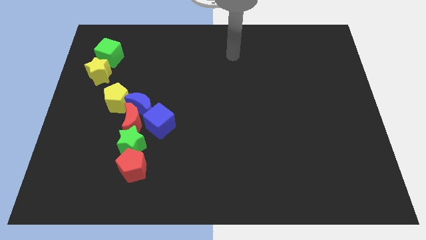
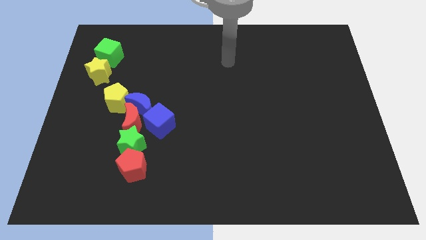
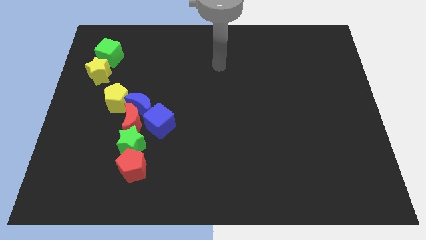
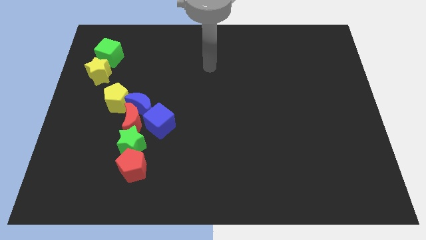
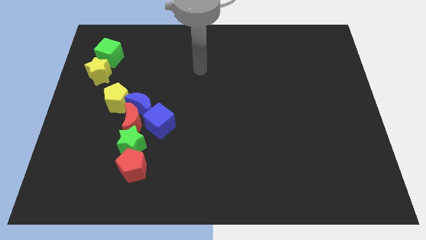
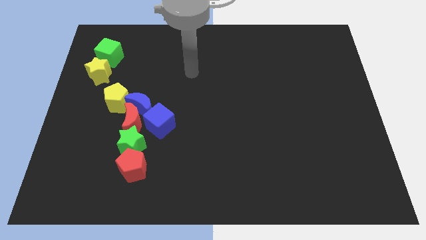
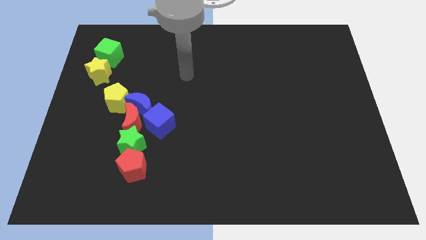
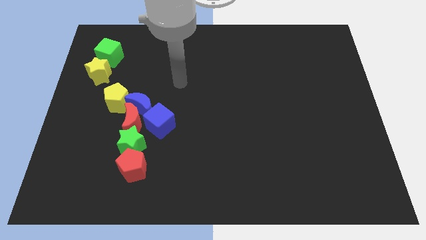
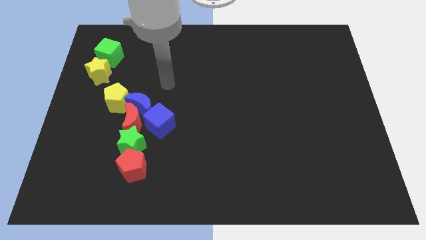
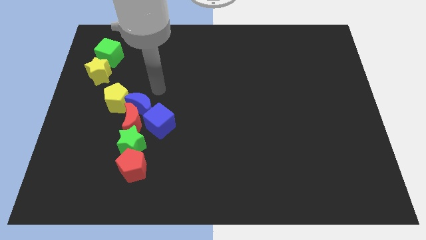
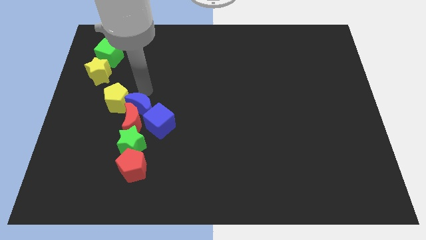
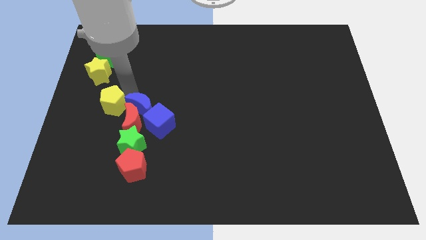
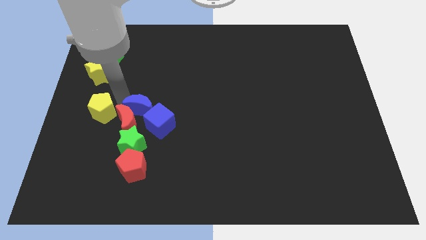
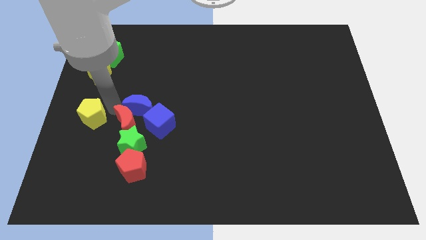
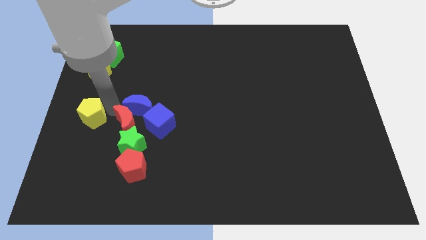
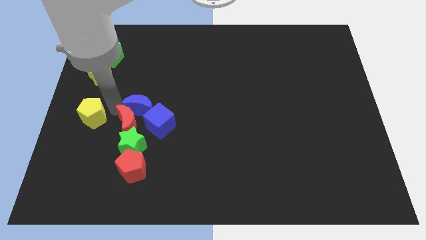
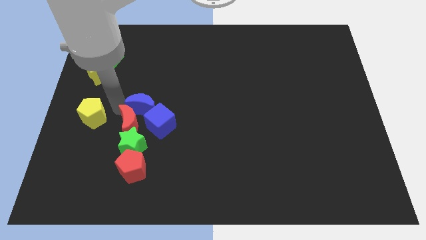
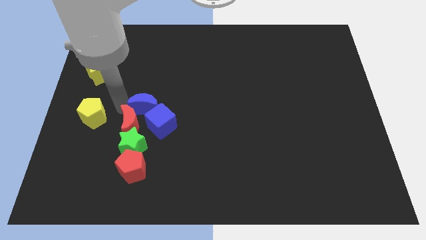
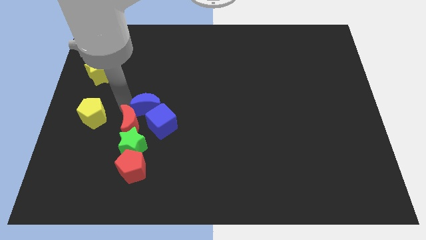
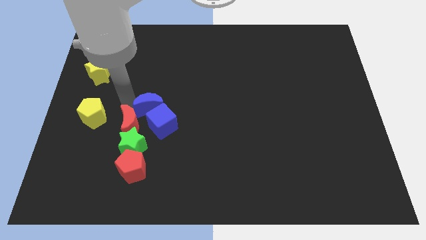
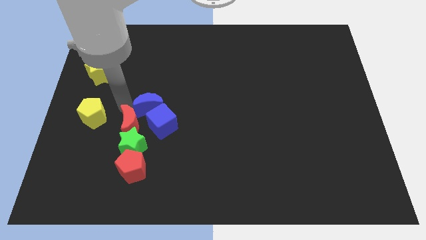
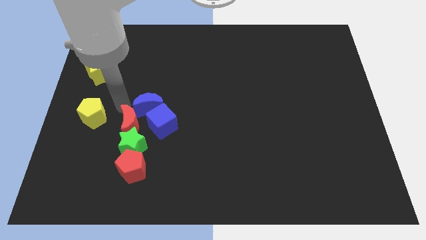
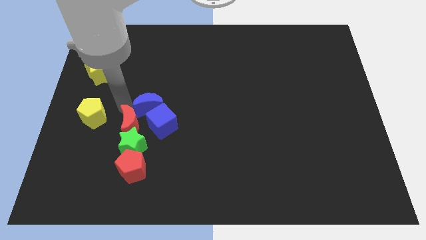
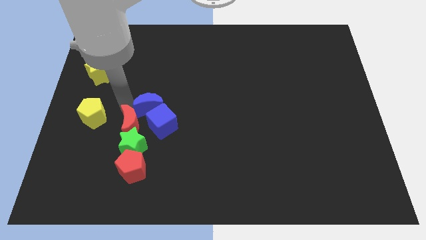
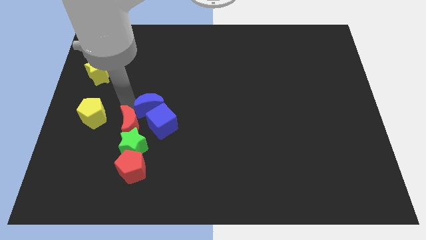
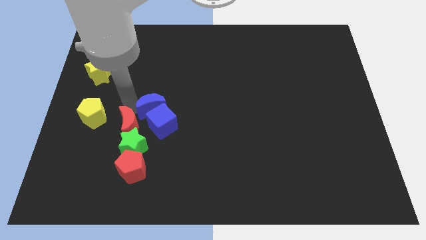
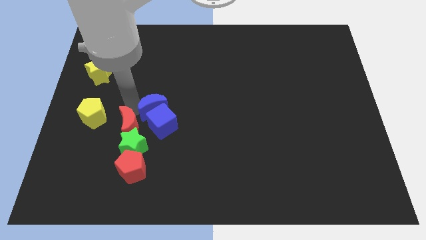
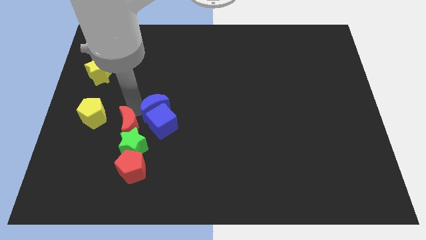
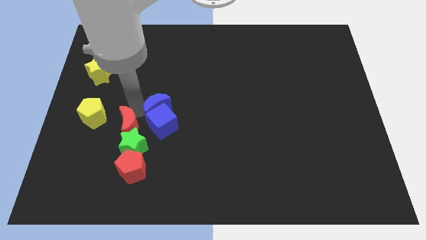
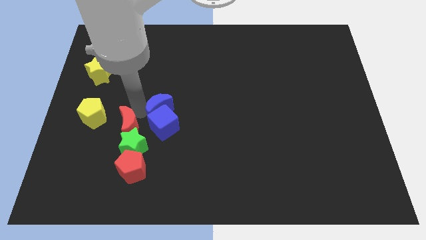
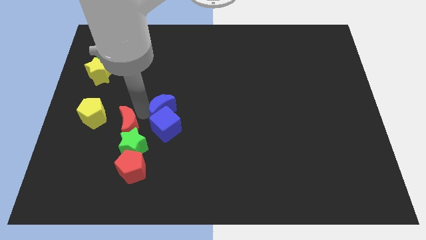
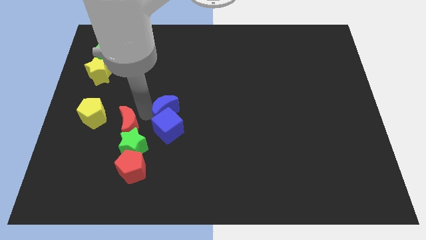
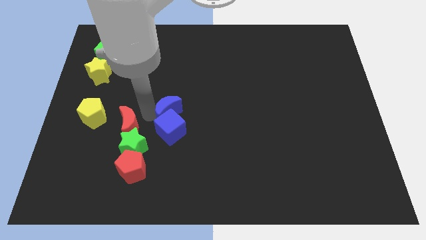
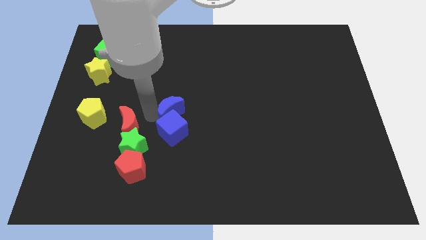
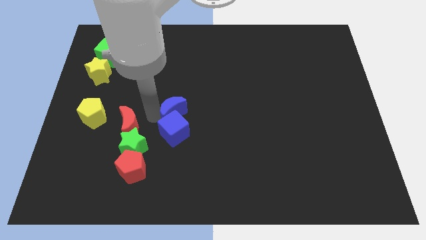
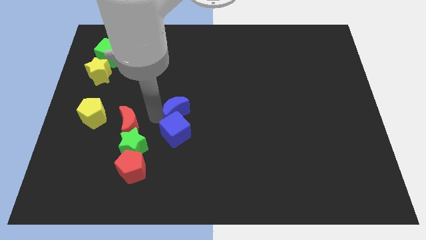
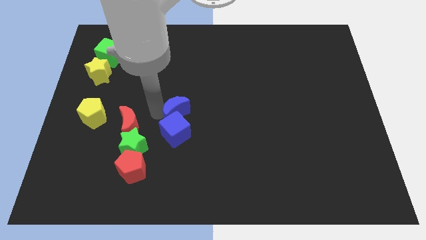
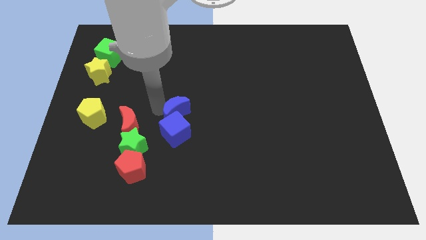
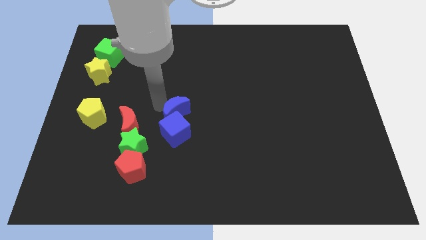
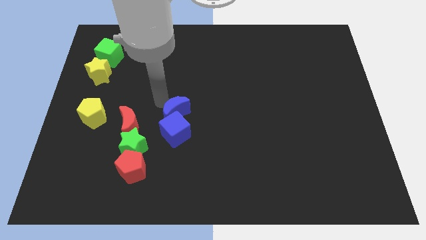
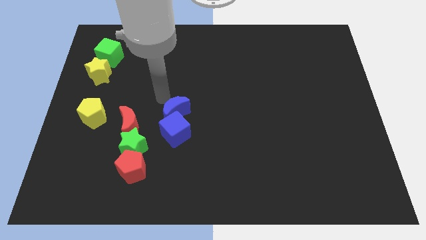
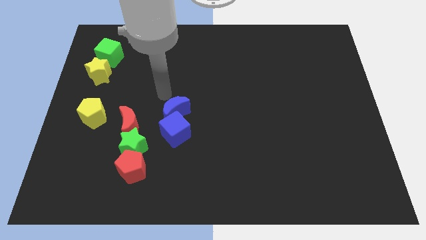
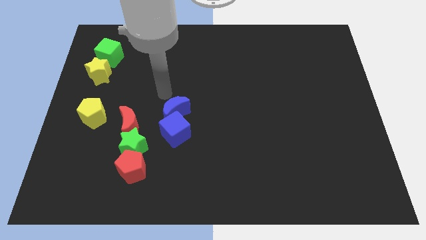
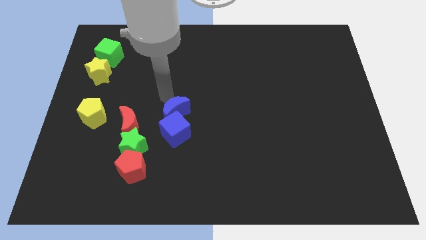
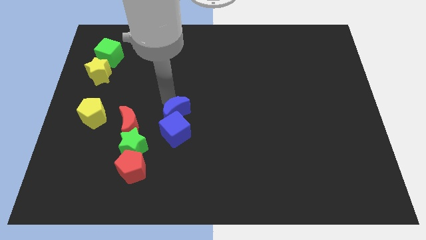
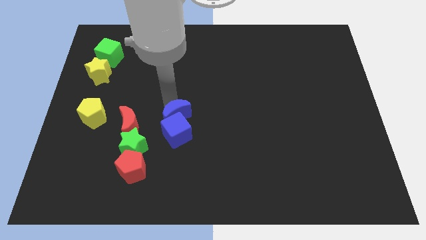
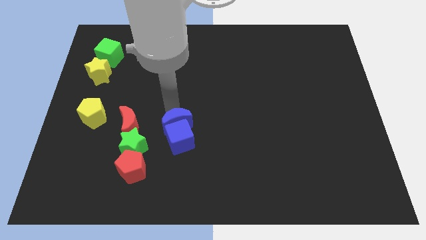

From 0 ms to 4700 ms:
slightly move the blue moon down and right diagonally

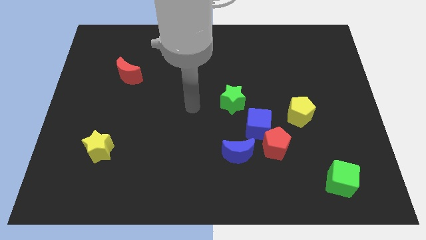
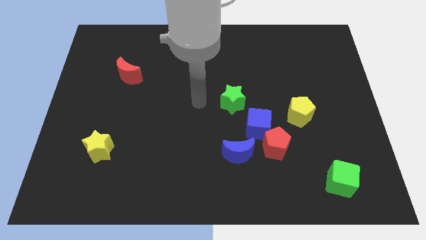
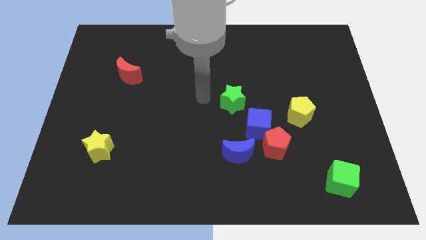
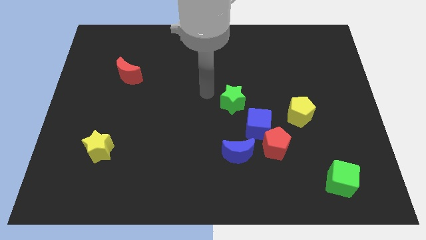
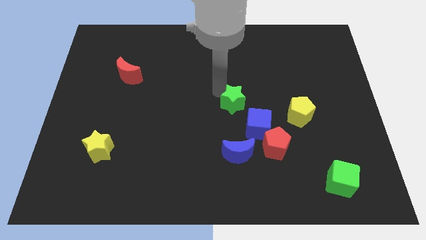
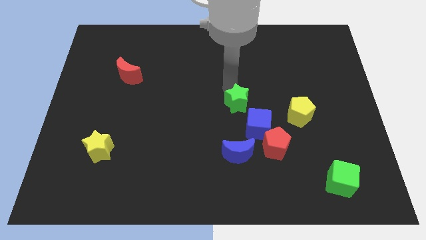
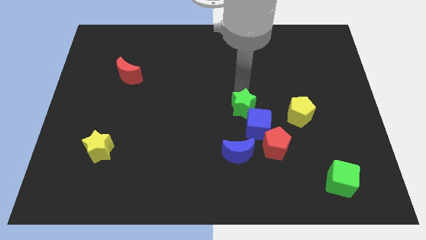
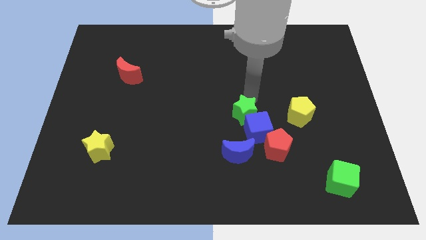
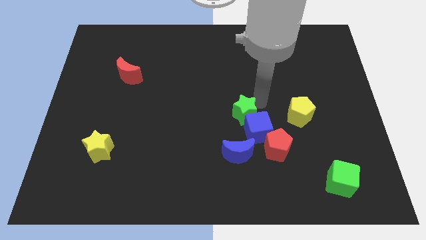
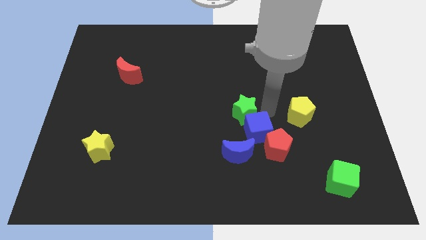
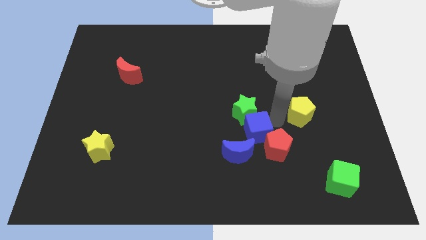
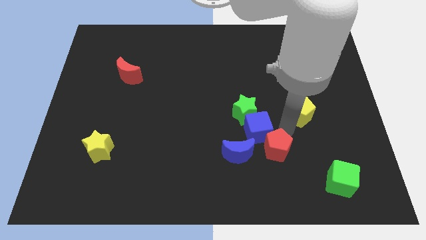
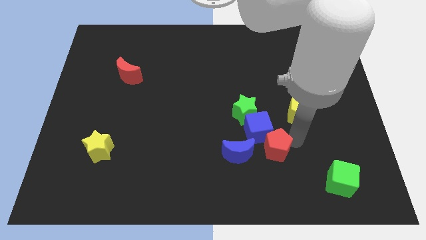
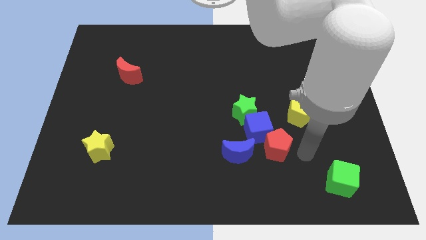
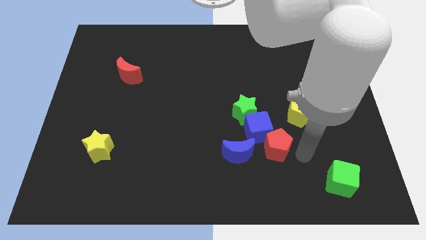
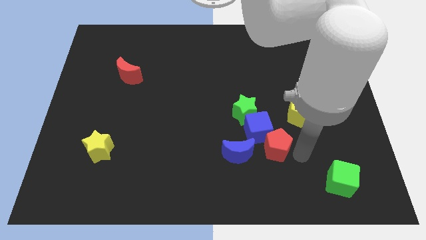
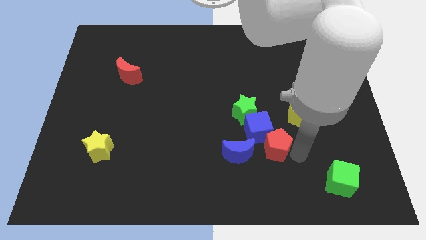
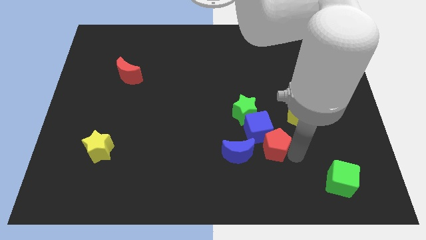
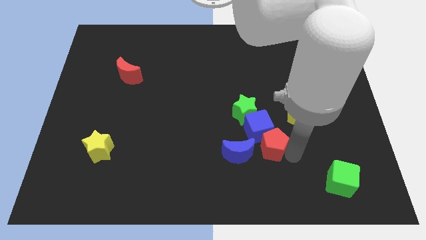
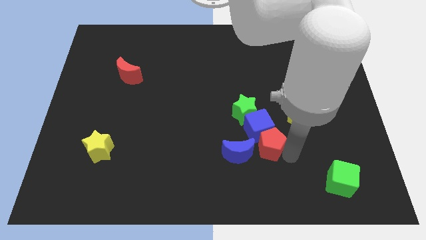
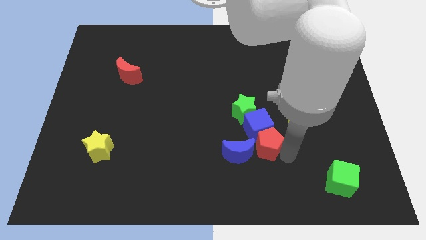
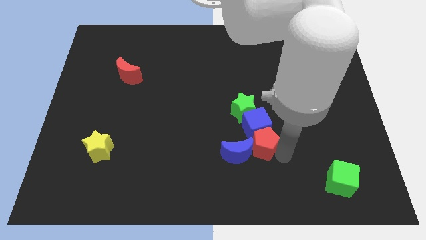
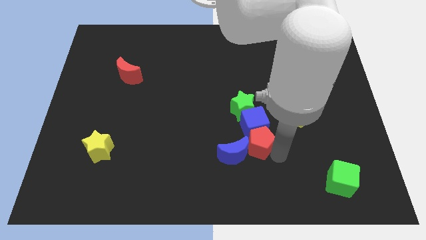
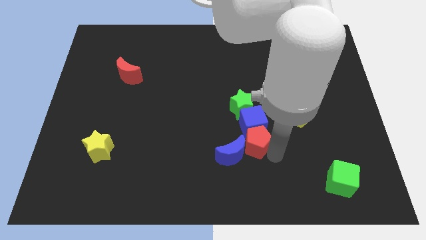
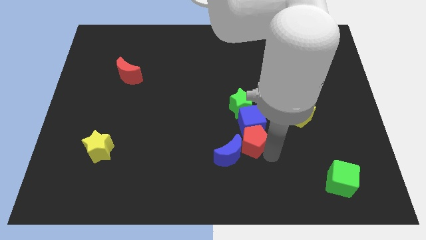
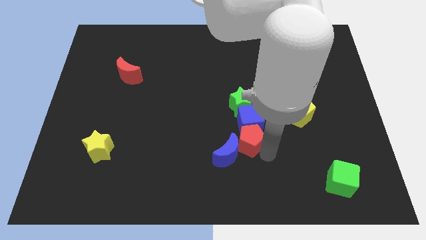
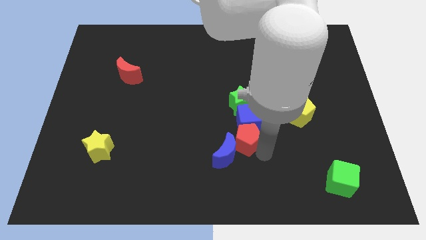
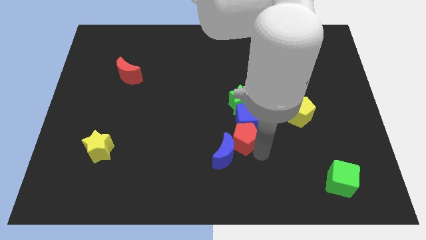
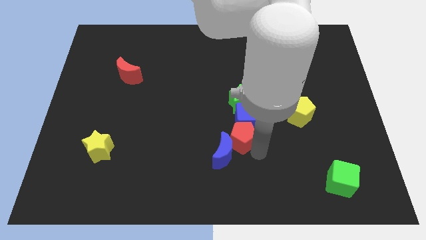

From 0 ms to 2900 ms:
push the red pentagon a little bit to the left
